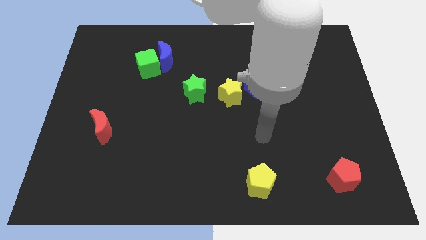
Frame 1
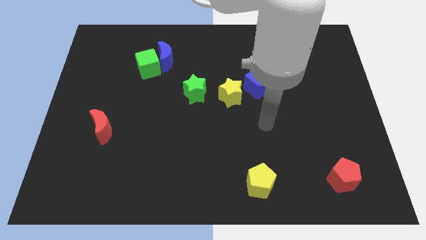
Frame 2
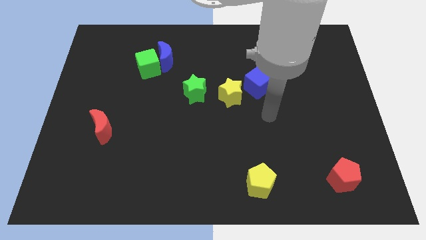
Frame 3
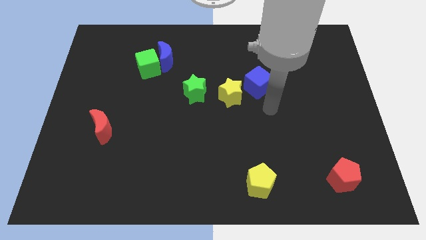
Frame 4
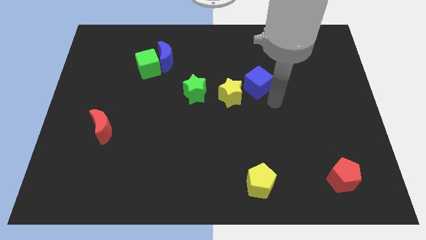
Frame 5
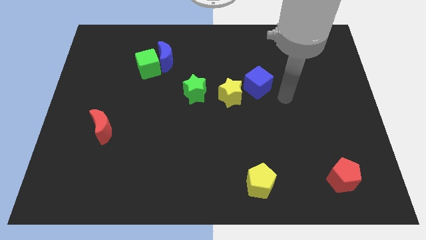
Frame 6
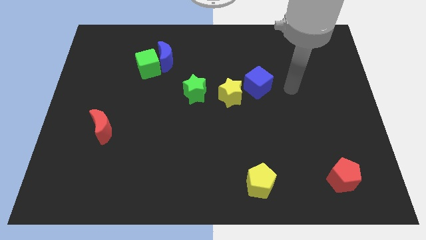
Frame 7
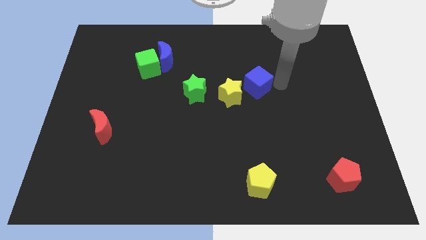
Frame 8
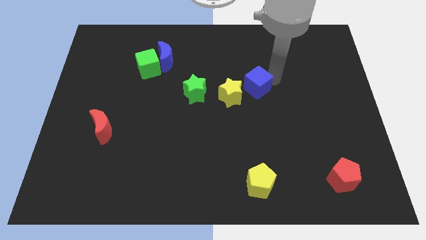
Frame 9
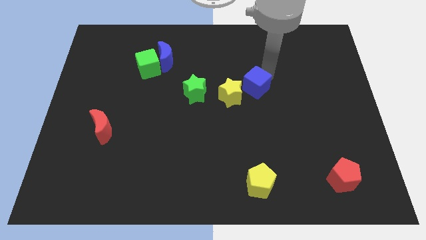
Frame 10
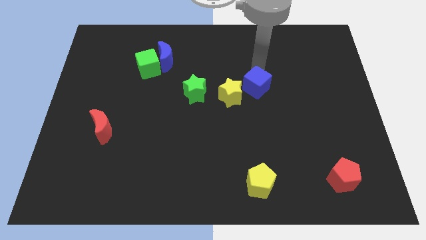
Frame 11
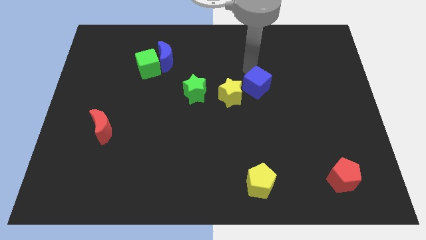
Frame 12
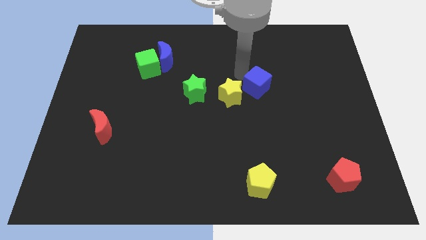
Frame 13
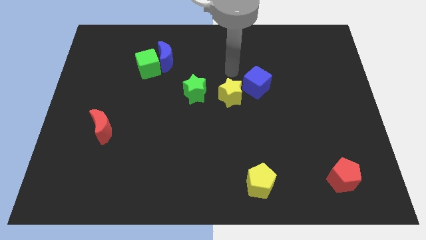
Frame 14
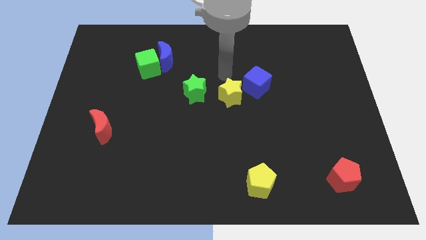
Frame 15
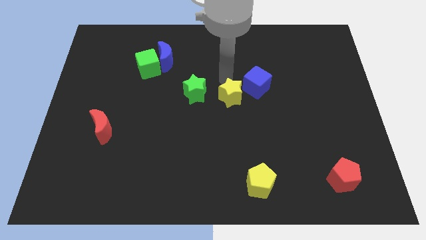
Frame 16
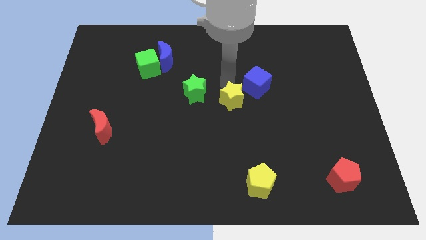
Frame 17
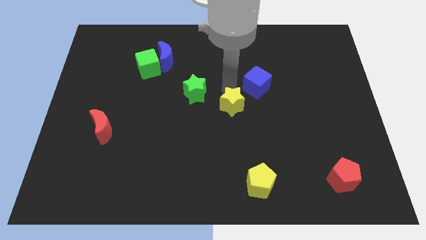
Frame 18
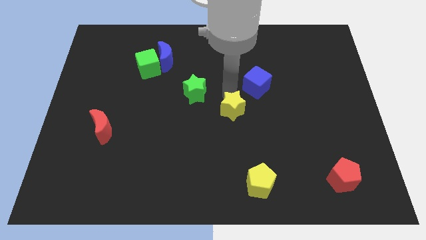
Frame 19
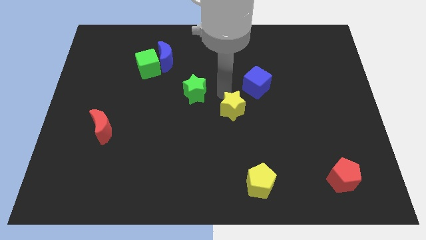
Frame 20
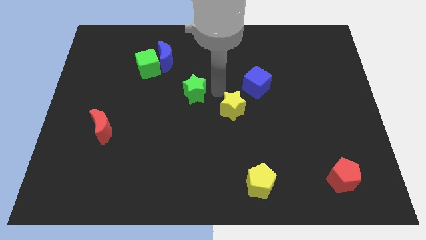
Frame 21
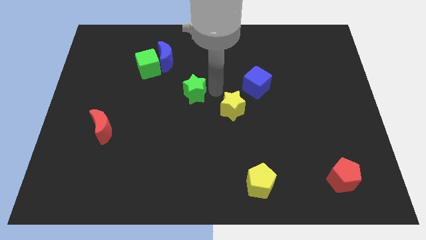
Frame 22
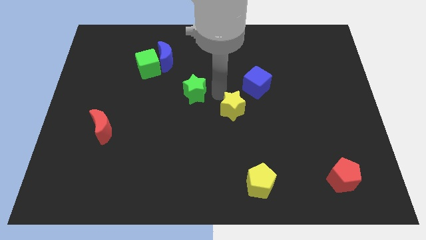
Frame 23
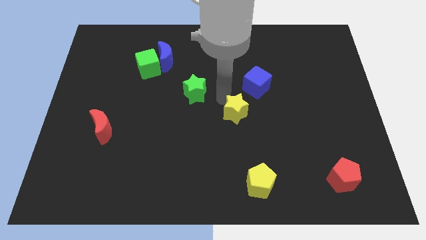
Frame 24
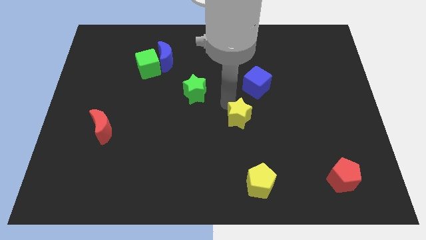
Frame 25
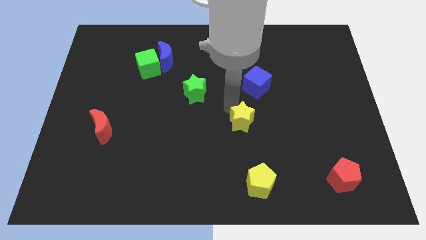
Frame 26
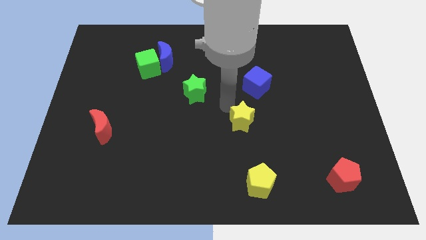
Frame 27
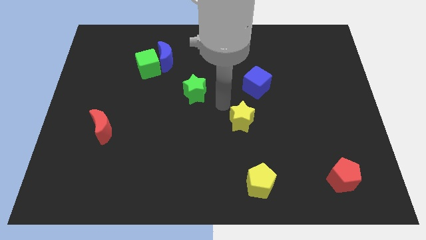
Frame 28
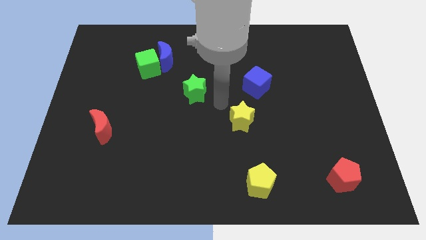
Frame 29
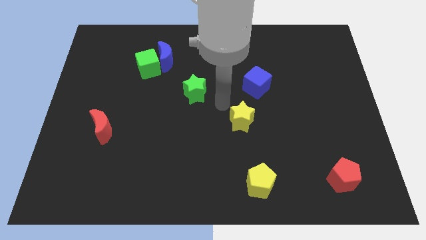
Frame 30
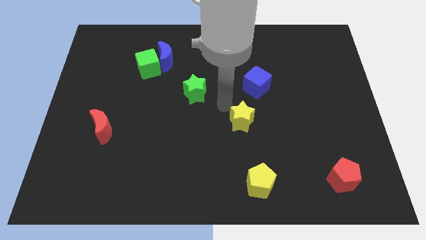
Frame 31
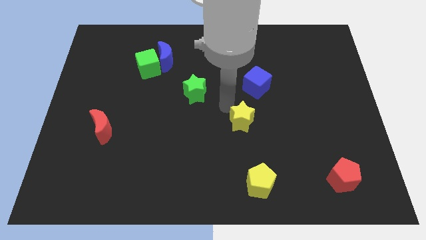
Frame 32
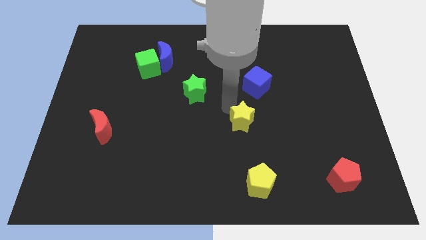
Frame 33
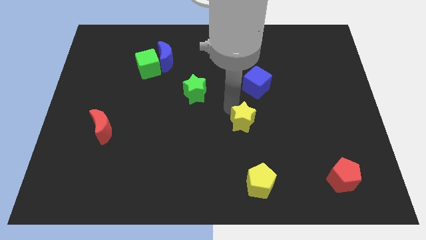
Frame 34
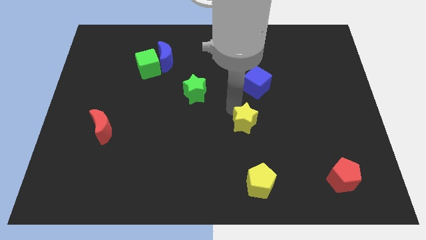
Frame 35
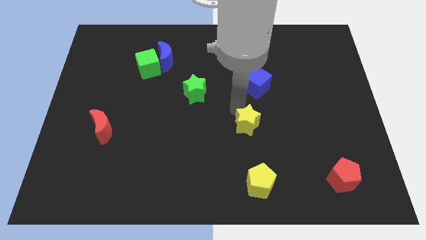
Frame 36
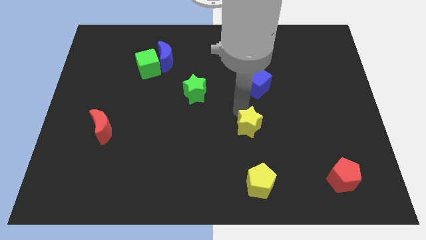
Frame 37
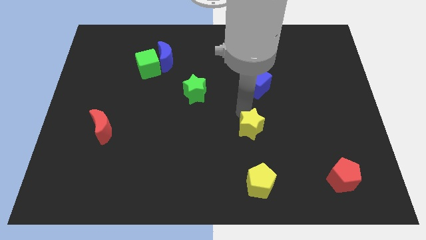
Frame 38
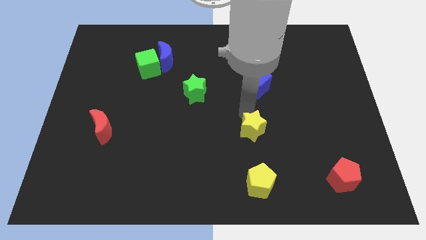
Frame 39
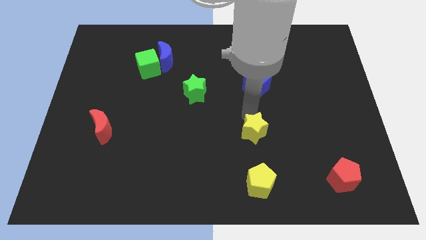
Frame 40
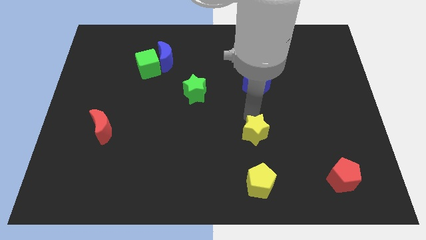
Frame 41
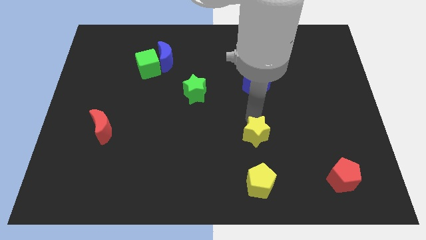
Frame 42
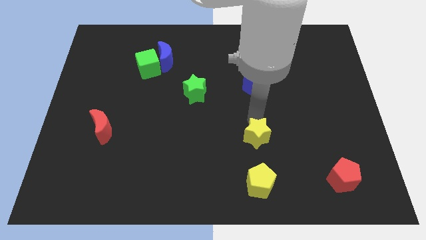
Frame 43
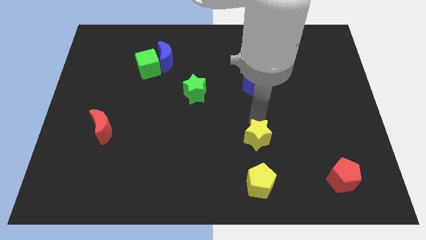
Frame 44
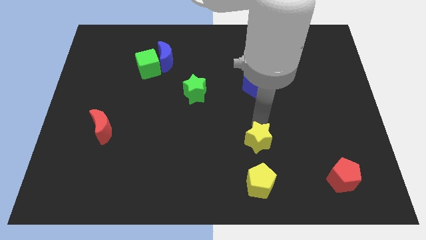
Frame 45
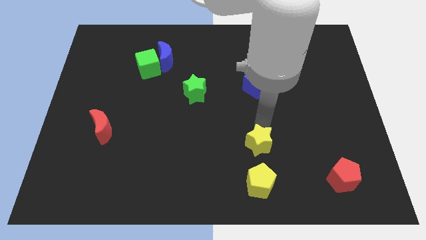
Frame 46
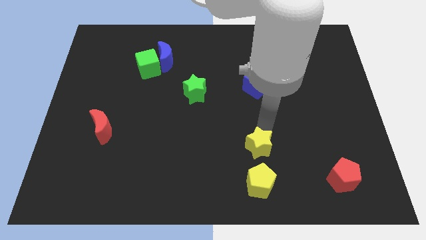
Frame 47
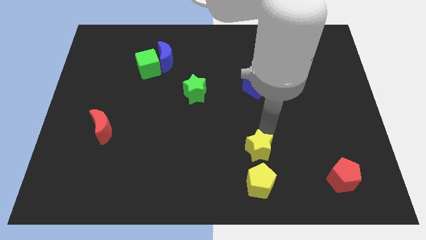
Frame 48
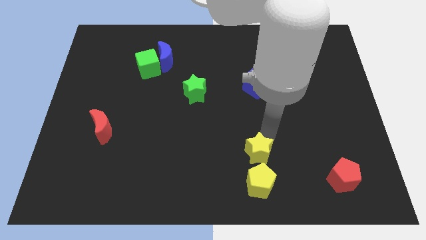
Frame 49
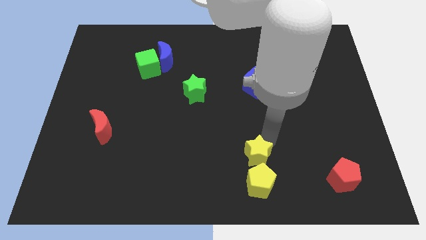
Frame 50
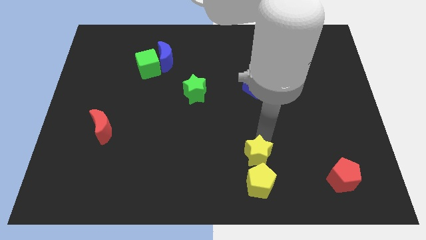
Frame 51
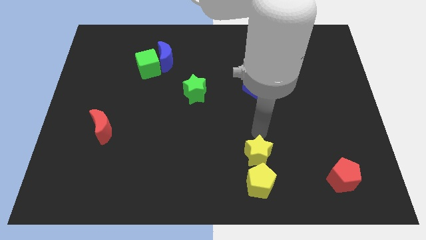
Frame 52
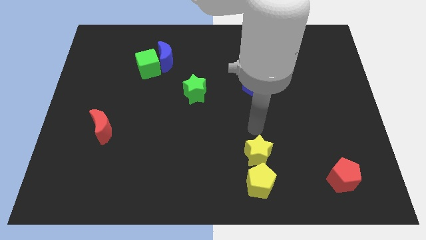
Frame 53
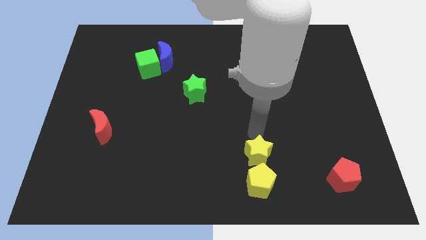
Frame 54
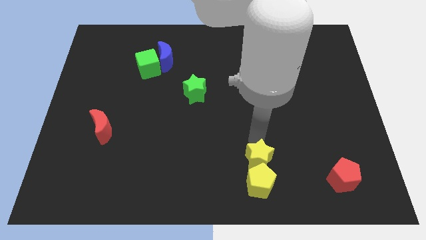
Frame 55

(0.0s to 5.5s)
move the yellow star to the yellow pentagon

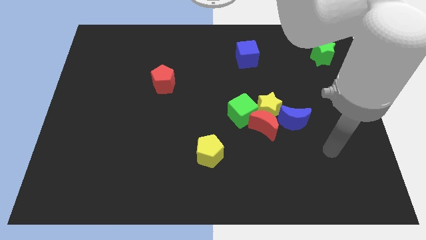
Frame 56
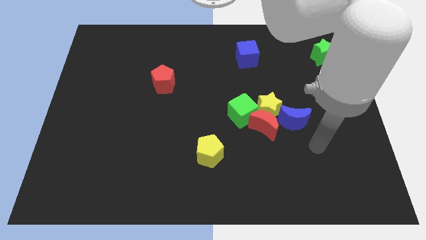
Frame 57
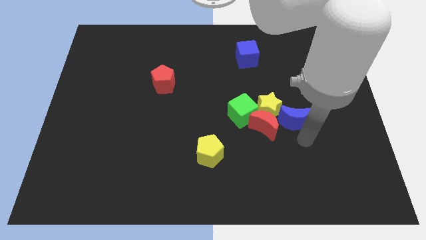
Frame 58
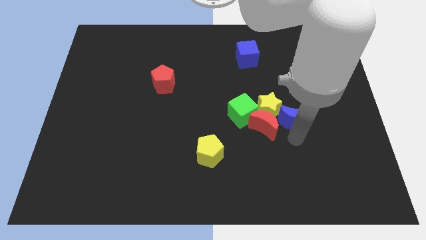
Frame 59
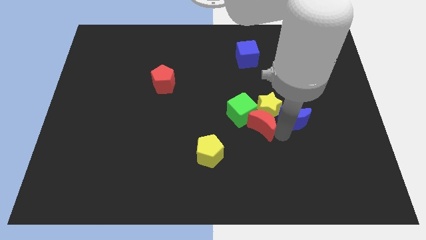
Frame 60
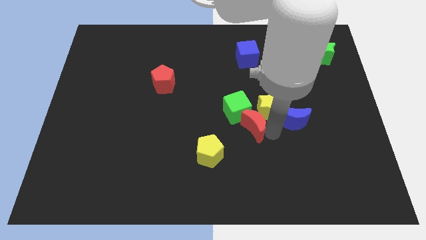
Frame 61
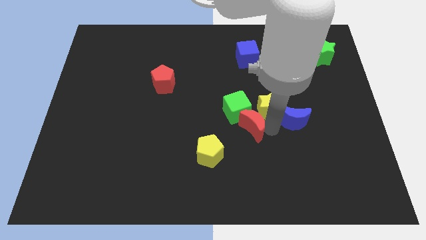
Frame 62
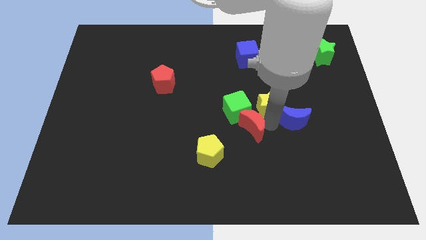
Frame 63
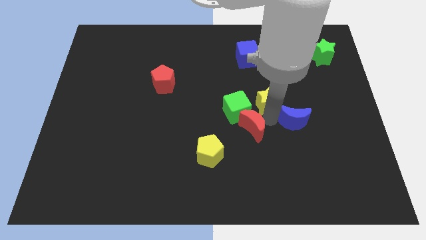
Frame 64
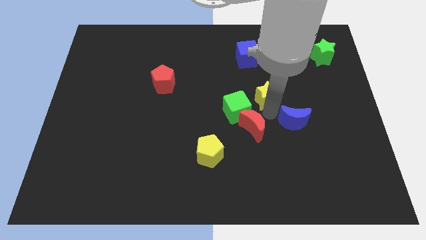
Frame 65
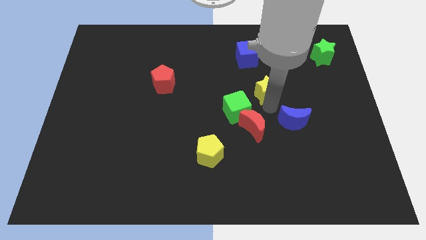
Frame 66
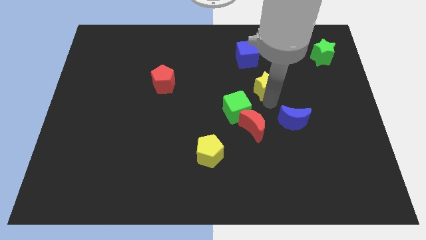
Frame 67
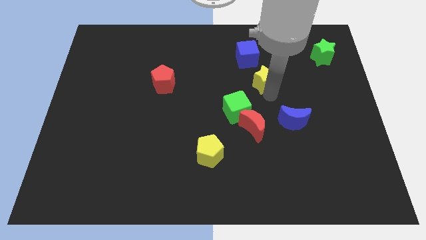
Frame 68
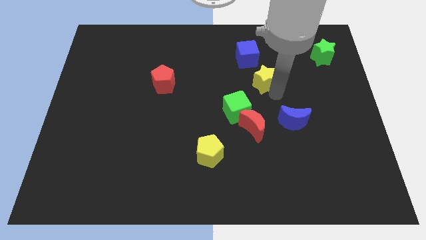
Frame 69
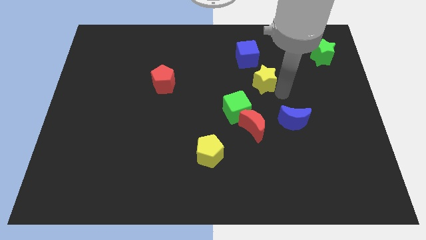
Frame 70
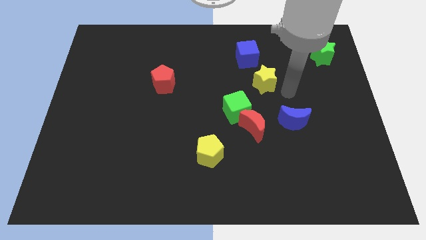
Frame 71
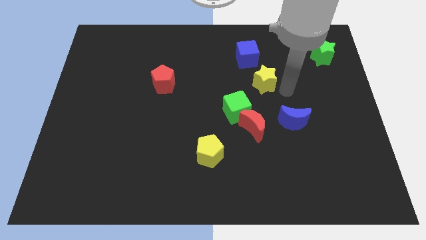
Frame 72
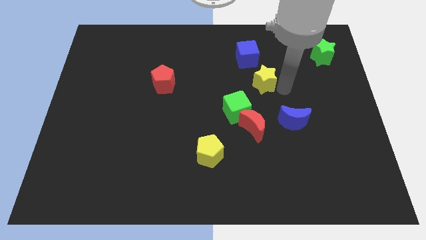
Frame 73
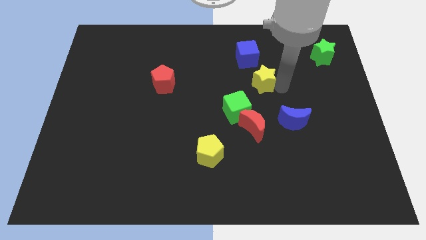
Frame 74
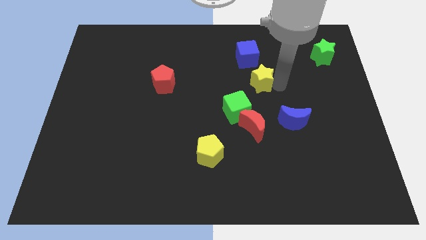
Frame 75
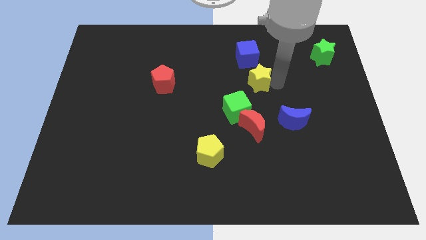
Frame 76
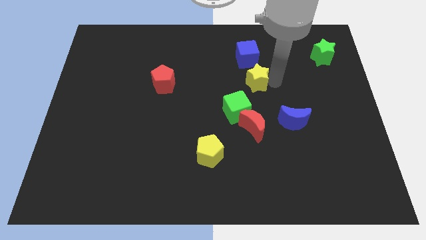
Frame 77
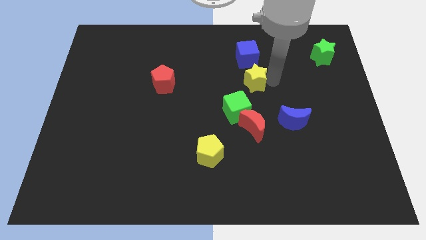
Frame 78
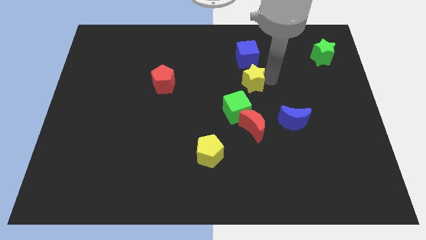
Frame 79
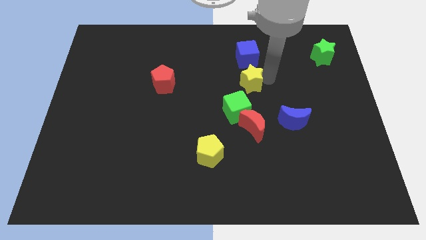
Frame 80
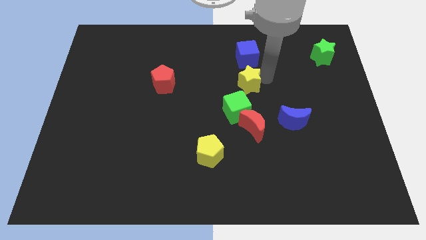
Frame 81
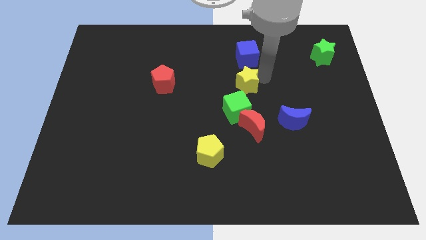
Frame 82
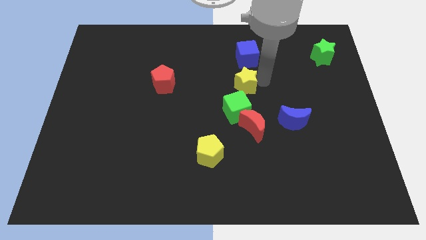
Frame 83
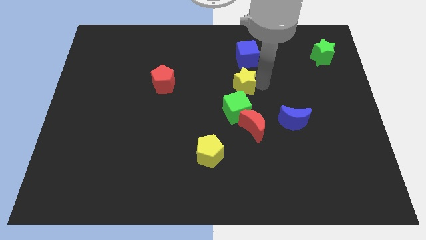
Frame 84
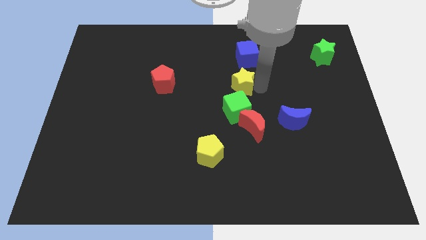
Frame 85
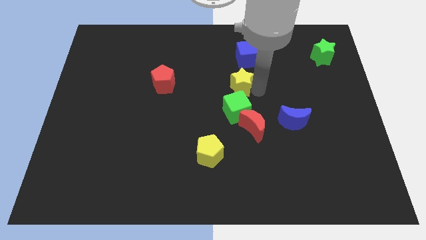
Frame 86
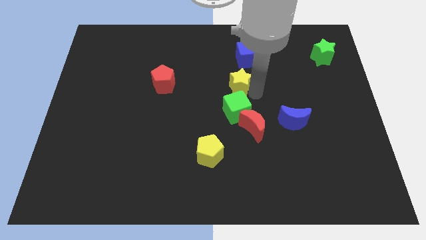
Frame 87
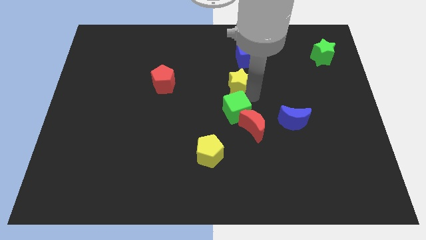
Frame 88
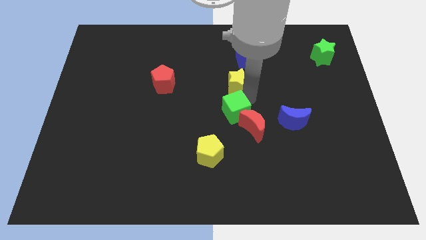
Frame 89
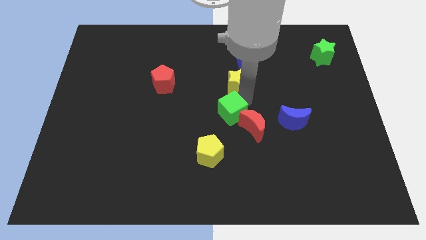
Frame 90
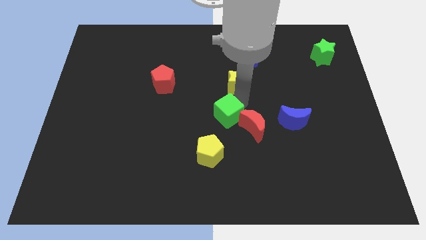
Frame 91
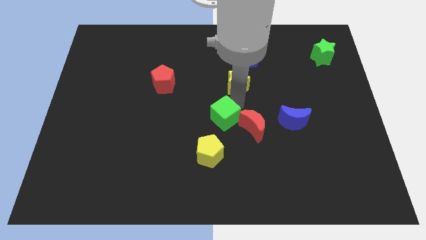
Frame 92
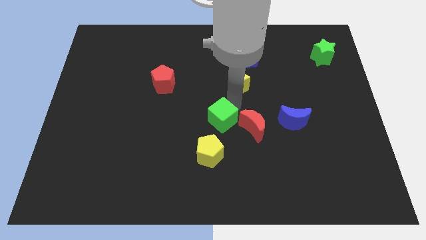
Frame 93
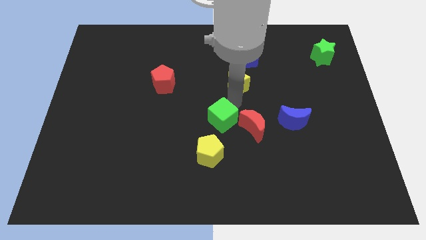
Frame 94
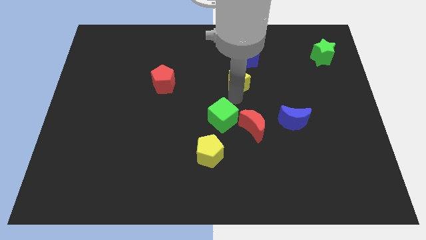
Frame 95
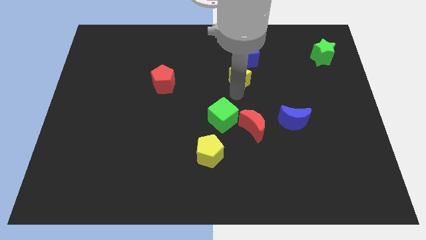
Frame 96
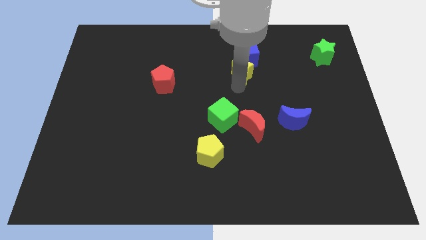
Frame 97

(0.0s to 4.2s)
push the yellow star next to the blue cube
